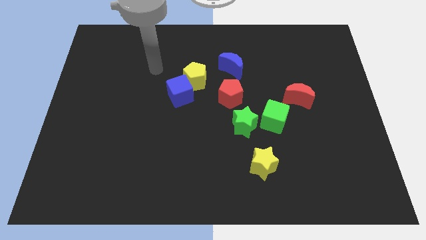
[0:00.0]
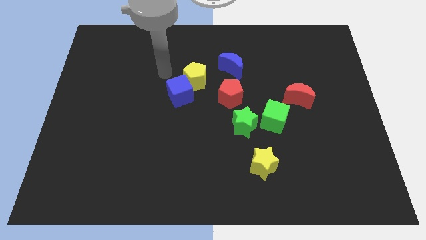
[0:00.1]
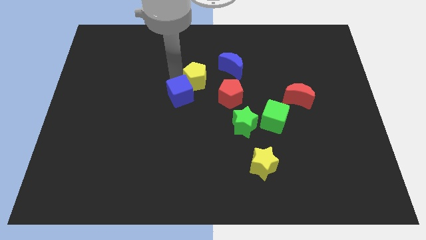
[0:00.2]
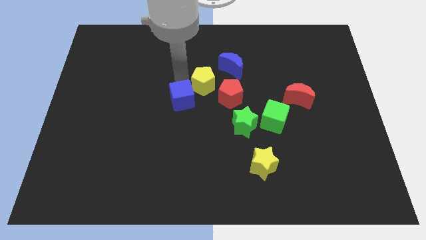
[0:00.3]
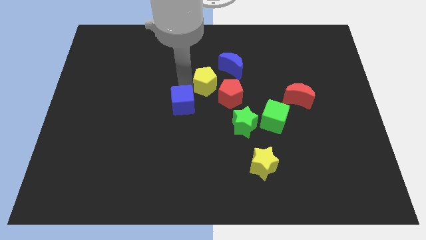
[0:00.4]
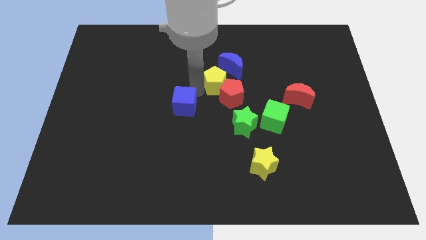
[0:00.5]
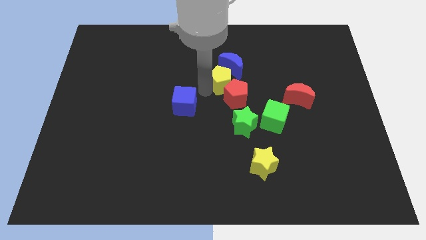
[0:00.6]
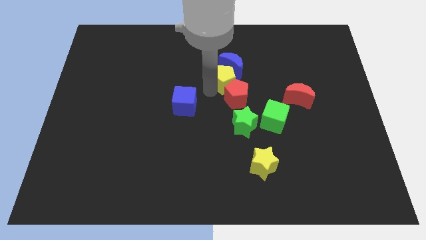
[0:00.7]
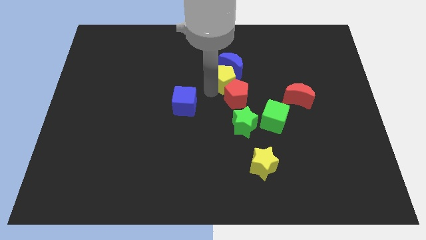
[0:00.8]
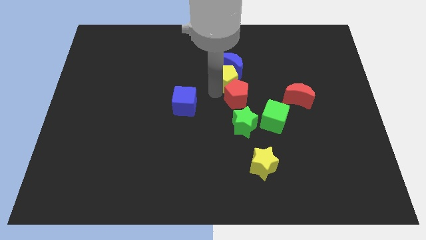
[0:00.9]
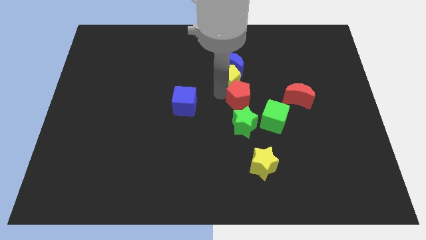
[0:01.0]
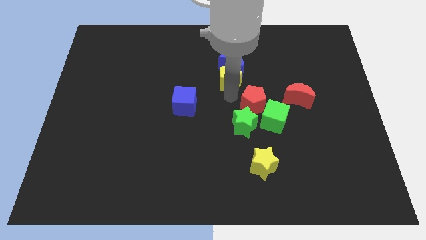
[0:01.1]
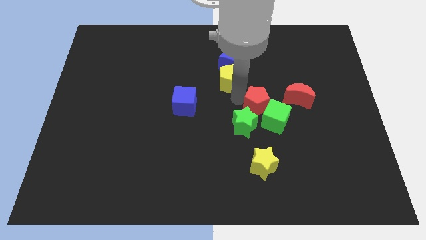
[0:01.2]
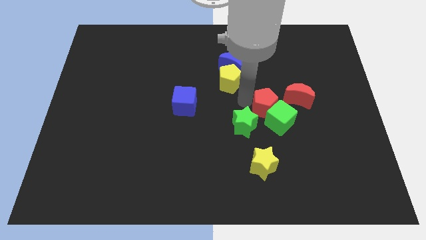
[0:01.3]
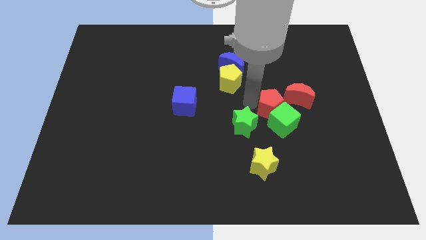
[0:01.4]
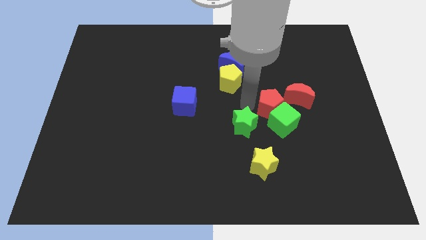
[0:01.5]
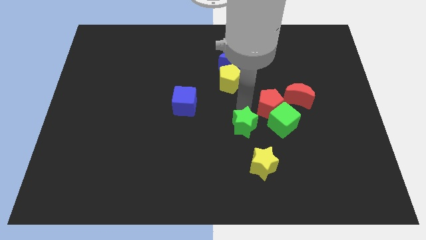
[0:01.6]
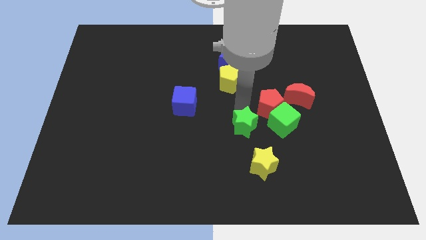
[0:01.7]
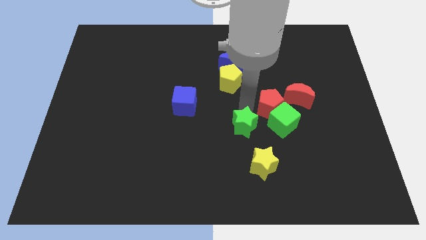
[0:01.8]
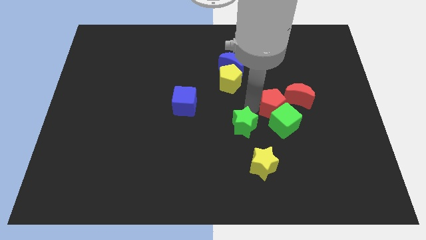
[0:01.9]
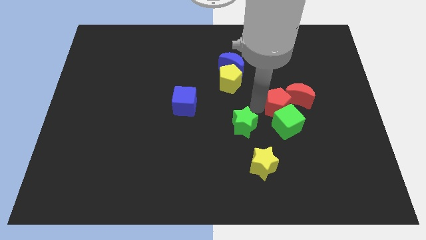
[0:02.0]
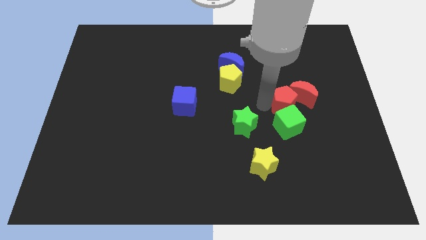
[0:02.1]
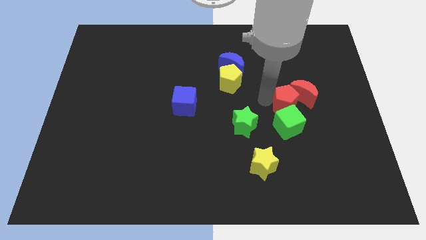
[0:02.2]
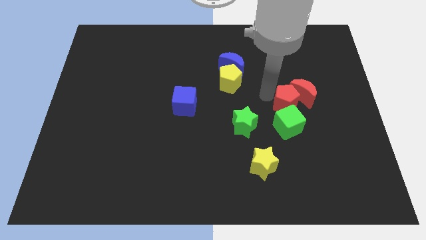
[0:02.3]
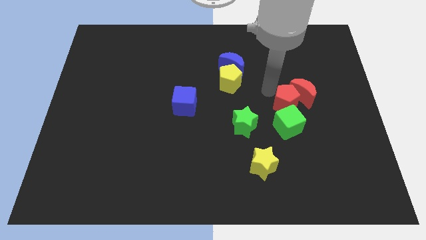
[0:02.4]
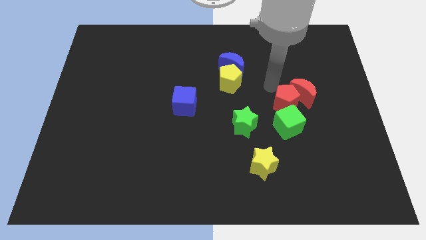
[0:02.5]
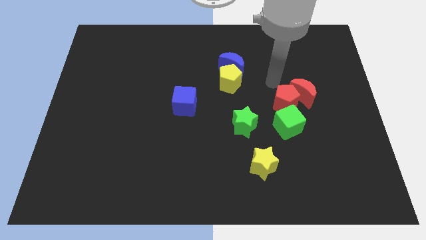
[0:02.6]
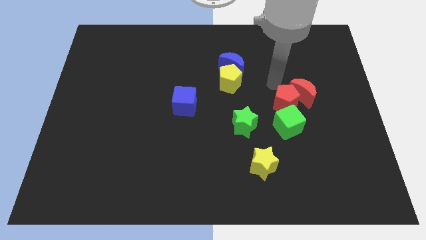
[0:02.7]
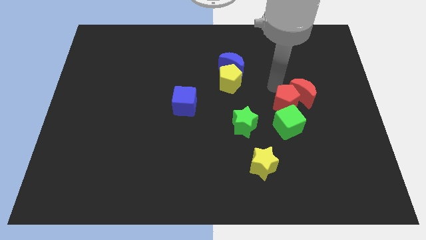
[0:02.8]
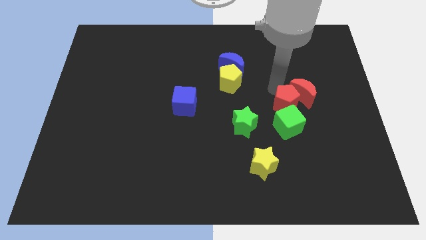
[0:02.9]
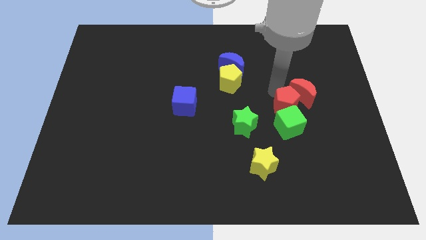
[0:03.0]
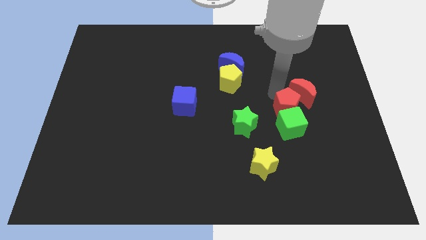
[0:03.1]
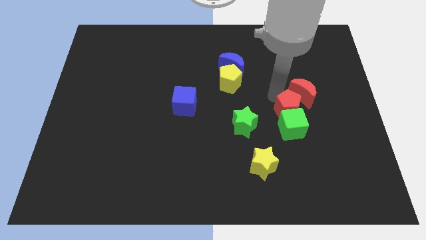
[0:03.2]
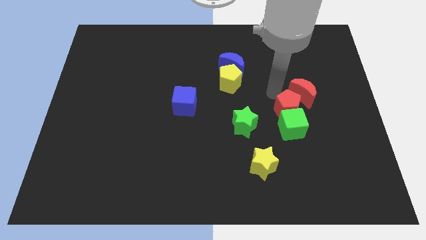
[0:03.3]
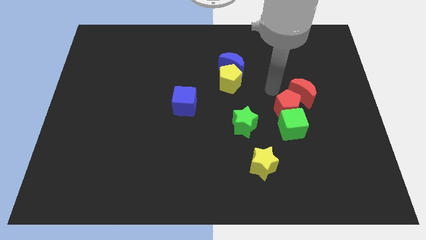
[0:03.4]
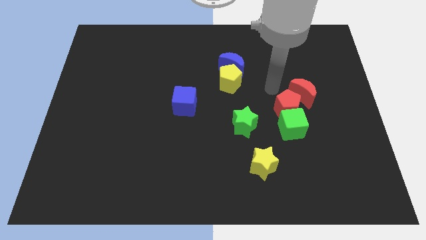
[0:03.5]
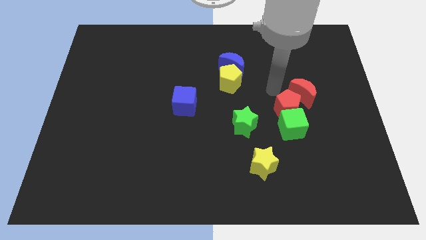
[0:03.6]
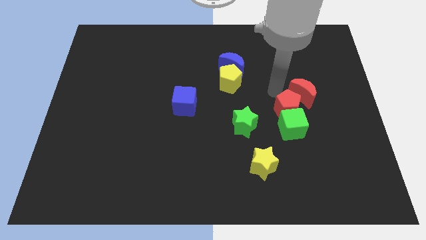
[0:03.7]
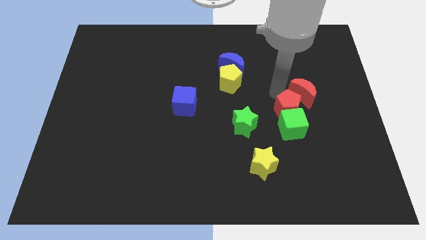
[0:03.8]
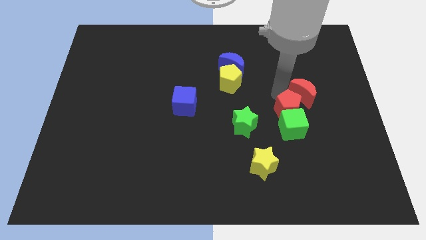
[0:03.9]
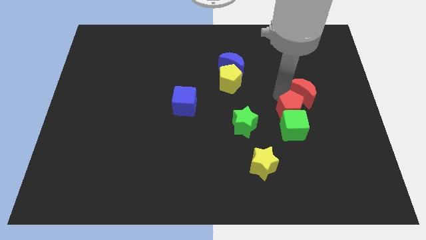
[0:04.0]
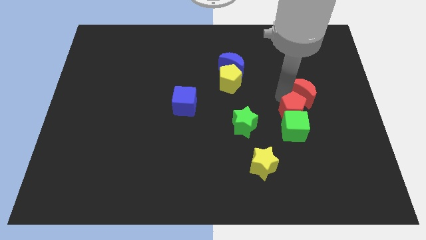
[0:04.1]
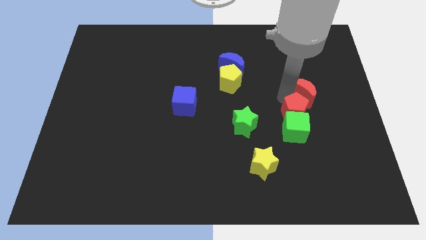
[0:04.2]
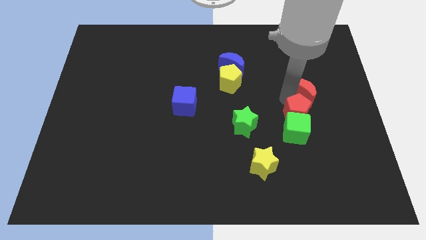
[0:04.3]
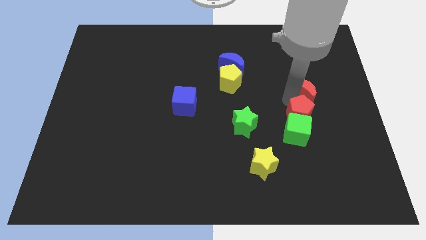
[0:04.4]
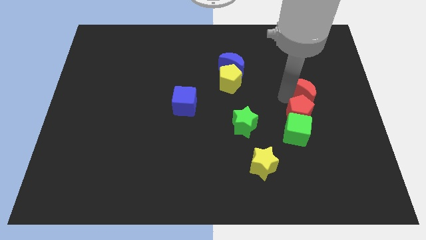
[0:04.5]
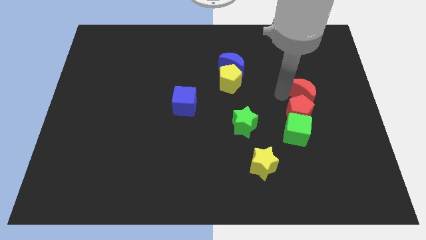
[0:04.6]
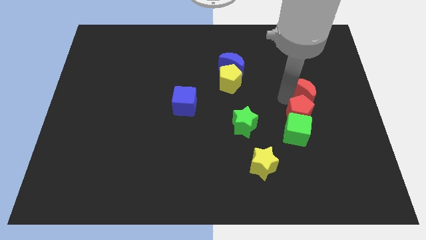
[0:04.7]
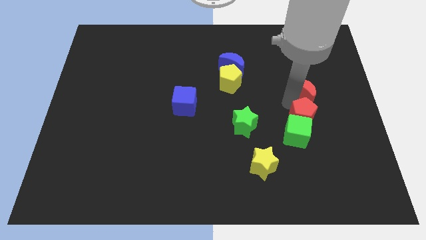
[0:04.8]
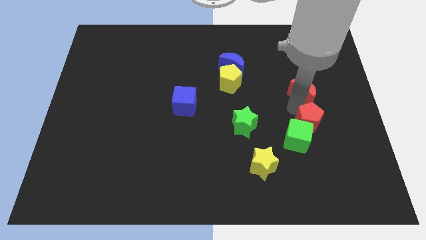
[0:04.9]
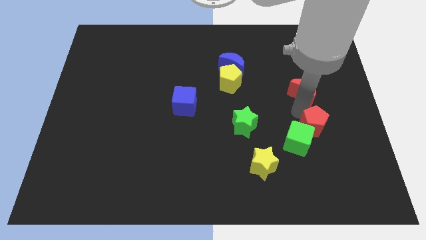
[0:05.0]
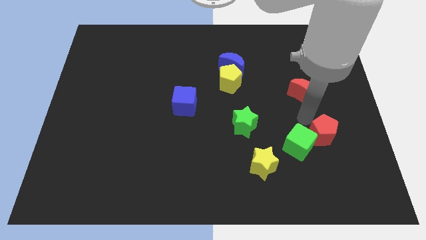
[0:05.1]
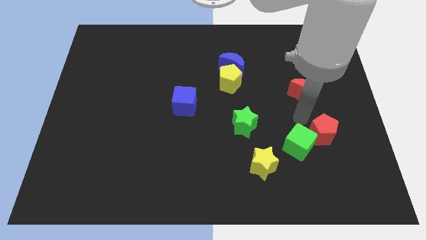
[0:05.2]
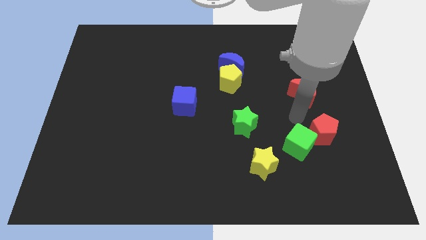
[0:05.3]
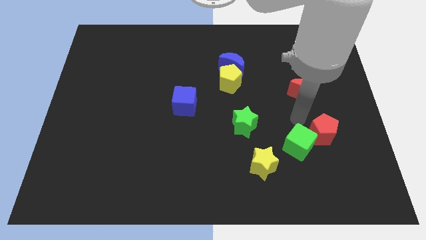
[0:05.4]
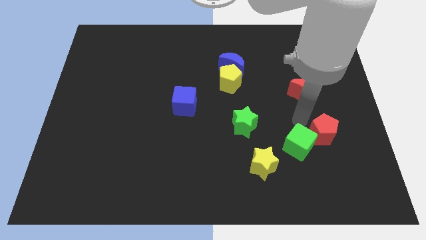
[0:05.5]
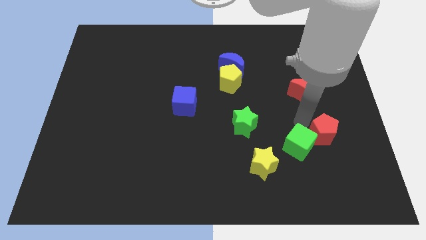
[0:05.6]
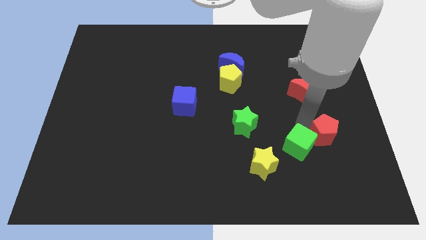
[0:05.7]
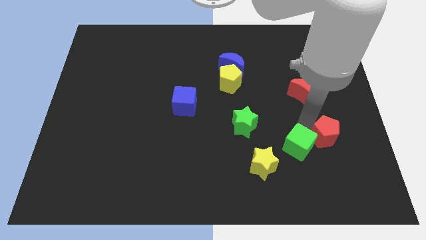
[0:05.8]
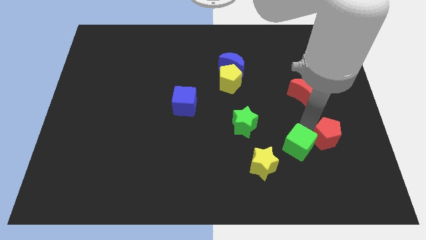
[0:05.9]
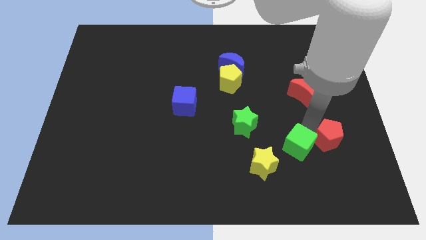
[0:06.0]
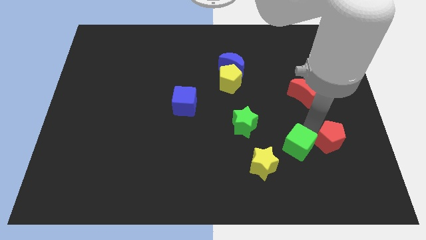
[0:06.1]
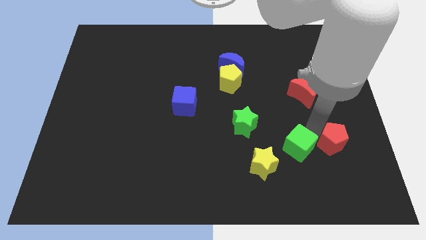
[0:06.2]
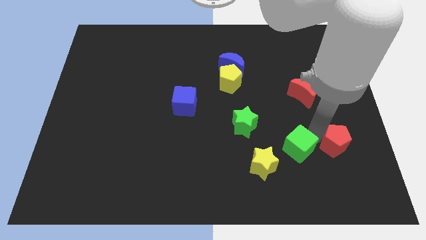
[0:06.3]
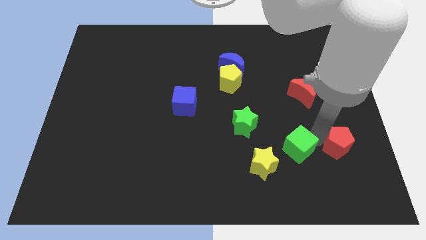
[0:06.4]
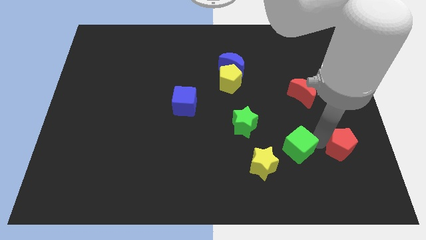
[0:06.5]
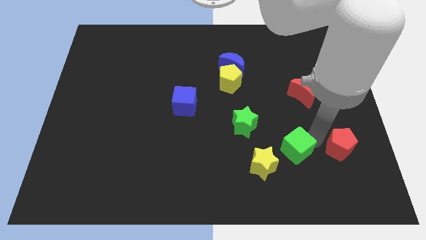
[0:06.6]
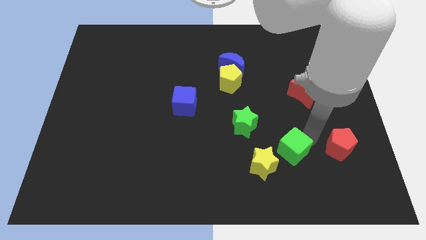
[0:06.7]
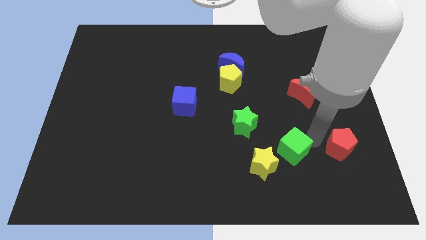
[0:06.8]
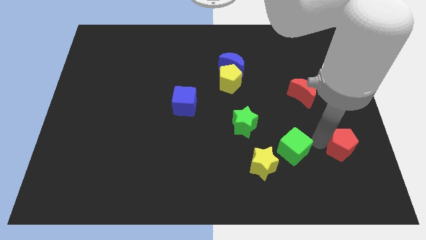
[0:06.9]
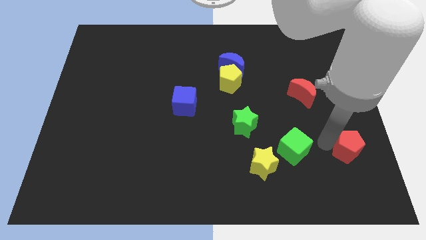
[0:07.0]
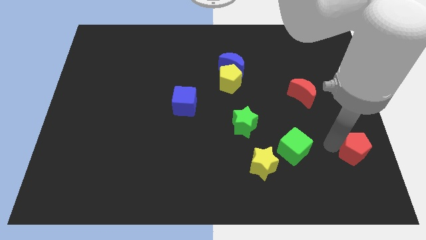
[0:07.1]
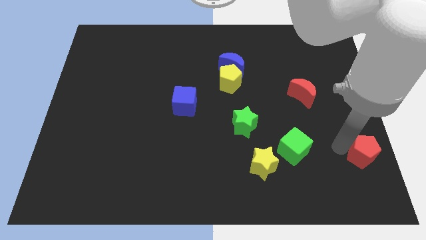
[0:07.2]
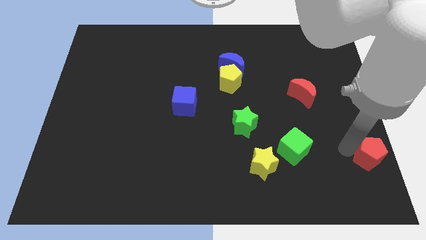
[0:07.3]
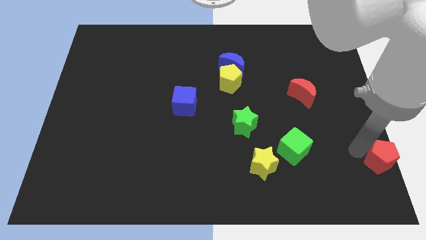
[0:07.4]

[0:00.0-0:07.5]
push the red pentagon to the lower right corner
